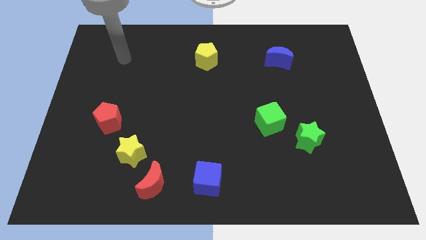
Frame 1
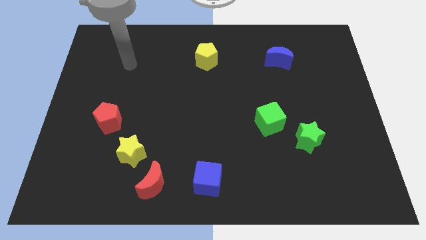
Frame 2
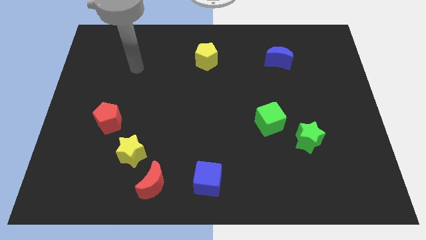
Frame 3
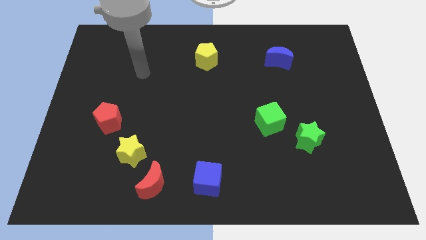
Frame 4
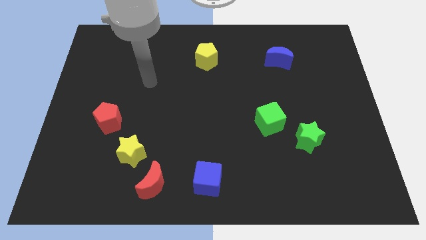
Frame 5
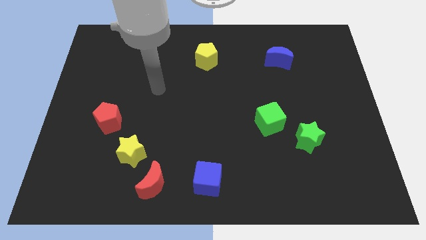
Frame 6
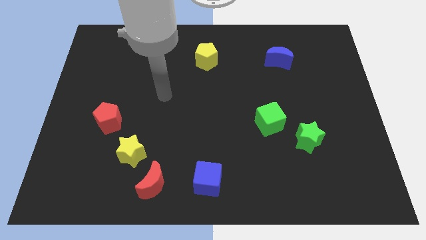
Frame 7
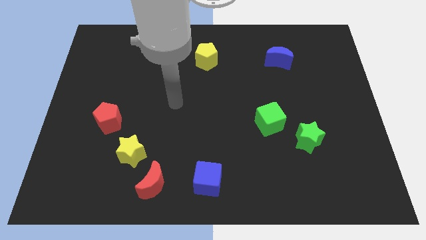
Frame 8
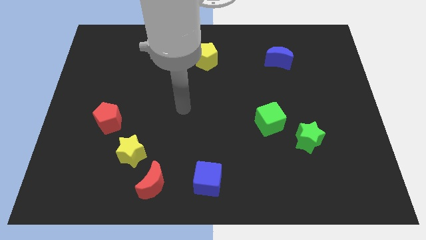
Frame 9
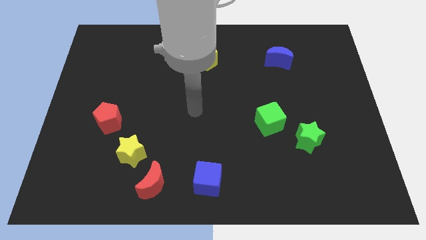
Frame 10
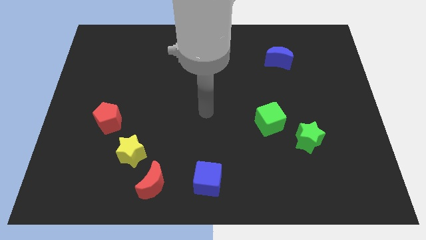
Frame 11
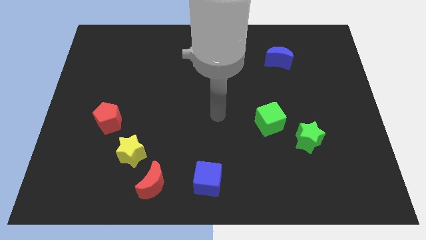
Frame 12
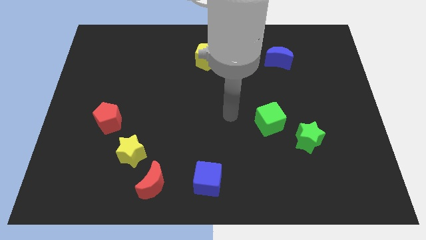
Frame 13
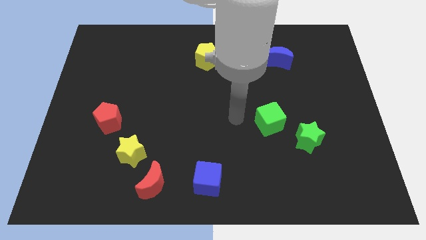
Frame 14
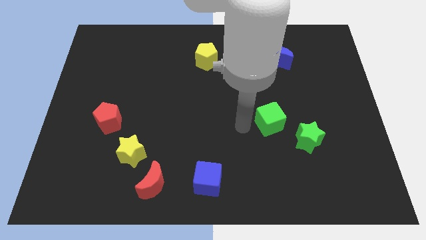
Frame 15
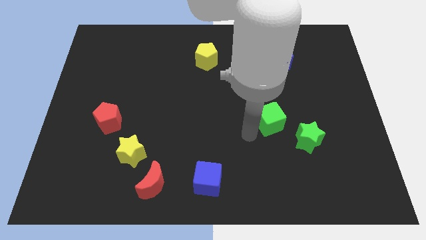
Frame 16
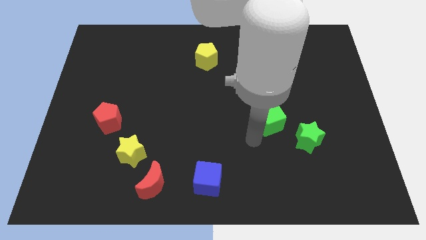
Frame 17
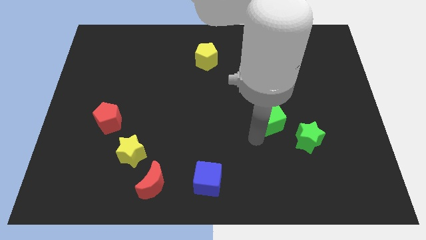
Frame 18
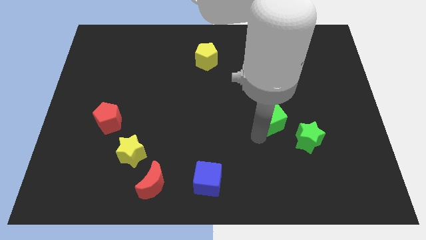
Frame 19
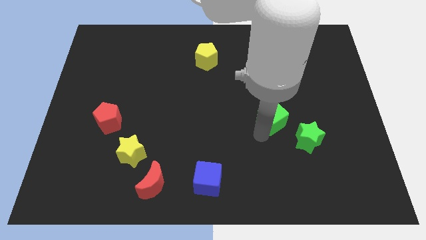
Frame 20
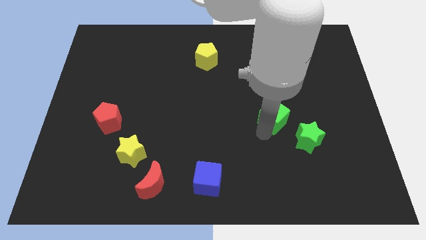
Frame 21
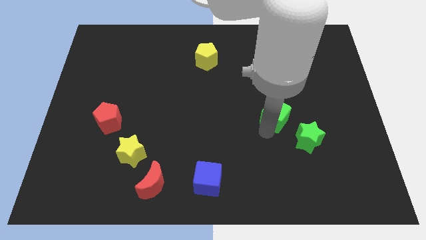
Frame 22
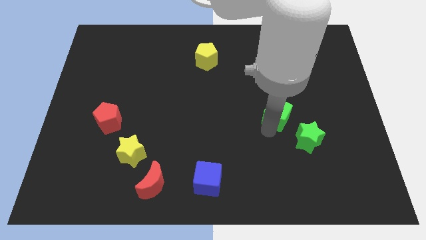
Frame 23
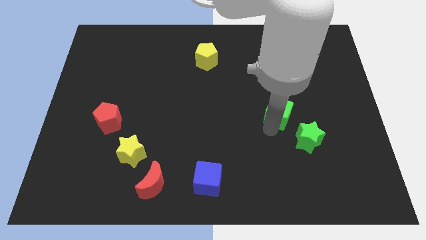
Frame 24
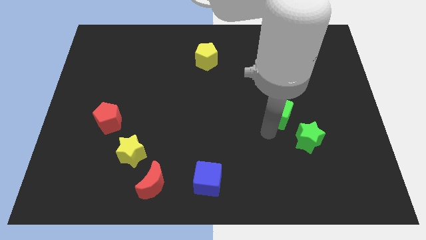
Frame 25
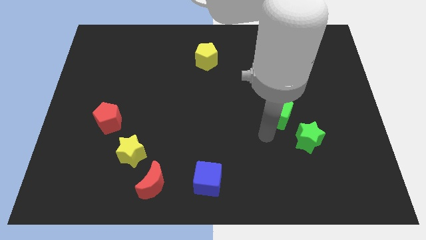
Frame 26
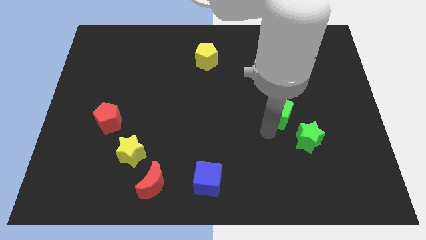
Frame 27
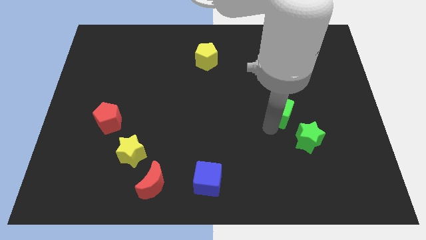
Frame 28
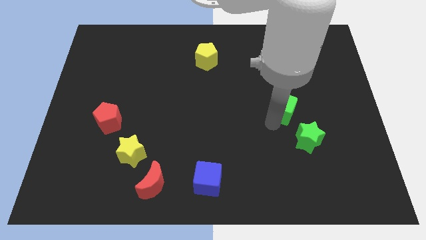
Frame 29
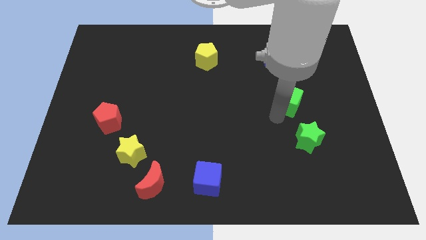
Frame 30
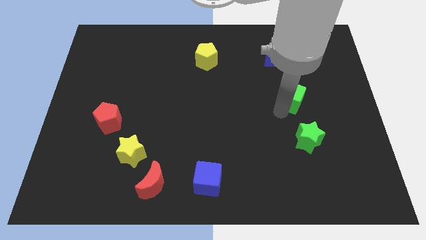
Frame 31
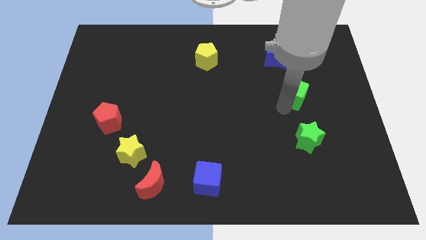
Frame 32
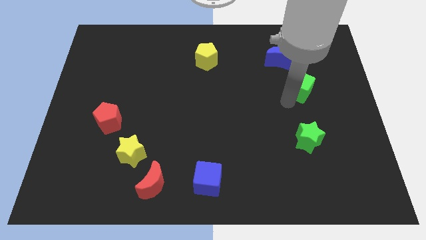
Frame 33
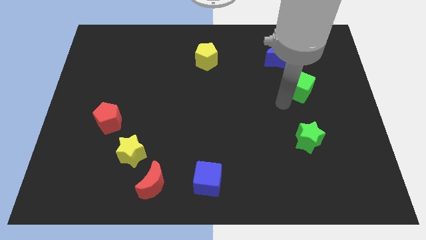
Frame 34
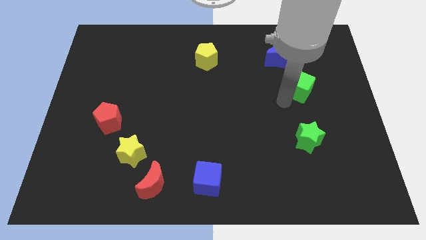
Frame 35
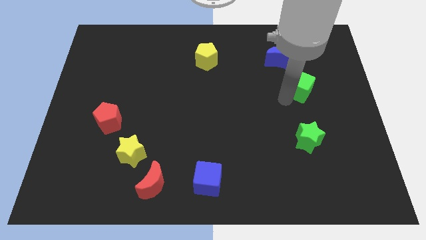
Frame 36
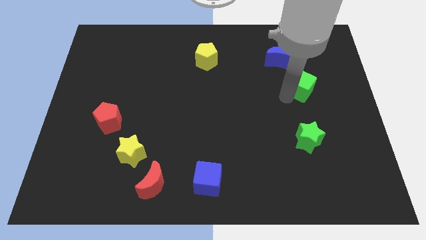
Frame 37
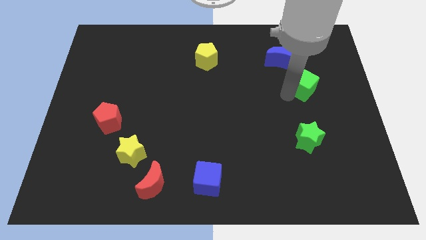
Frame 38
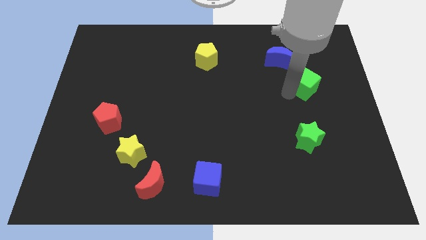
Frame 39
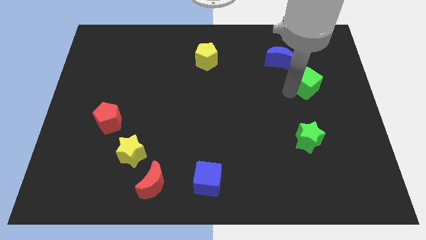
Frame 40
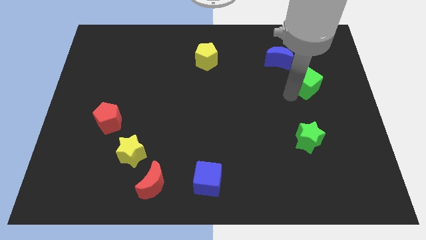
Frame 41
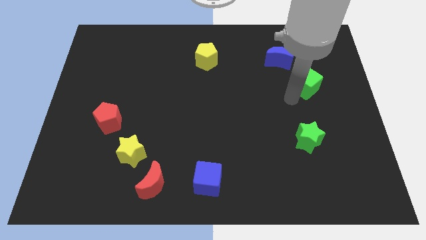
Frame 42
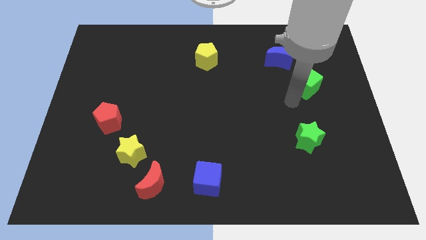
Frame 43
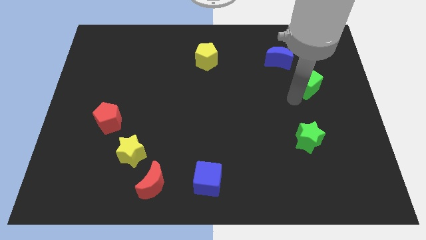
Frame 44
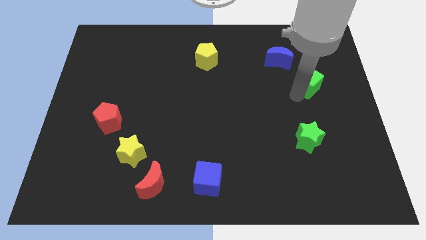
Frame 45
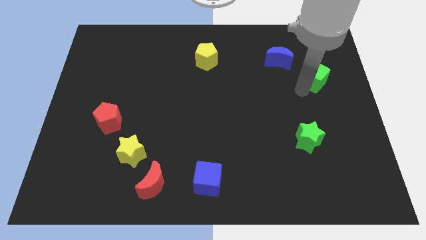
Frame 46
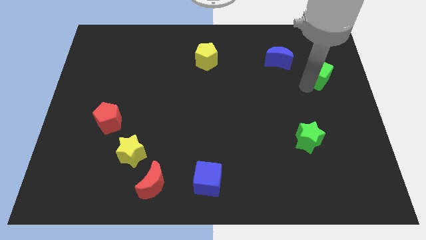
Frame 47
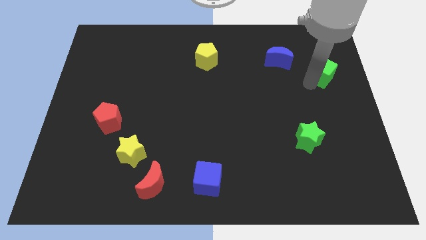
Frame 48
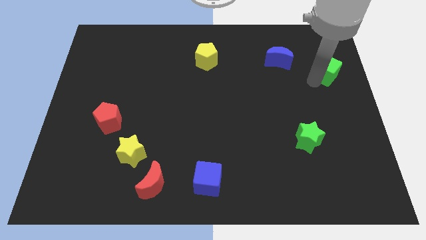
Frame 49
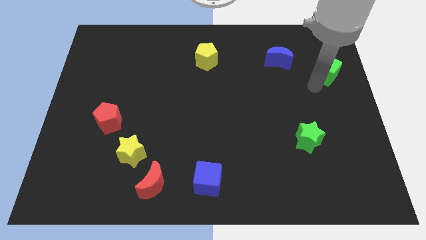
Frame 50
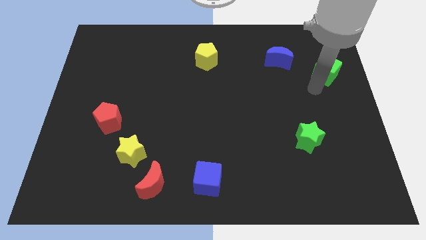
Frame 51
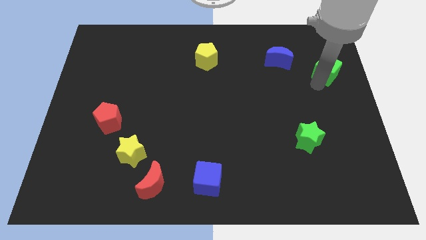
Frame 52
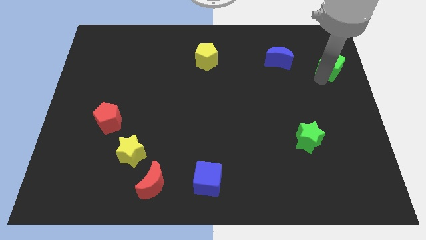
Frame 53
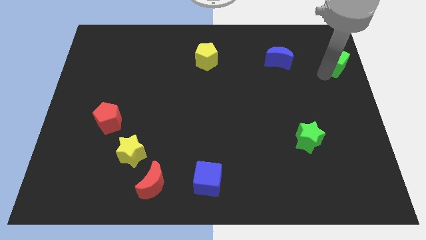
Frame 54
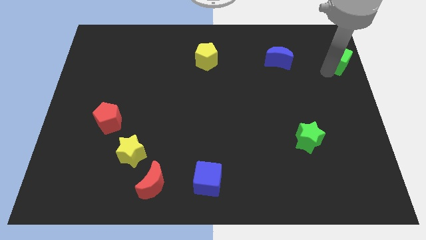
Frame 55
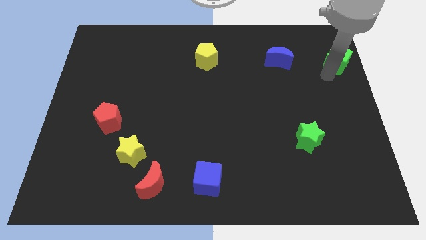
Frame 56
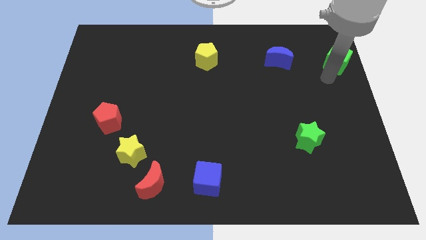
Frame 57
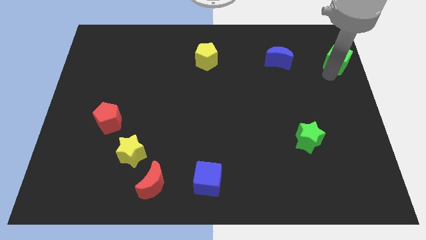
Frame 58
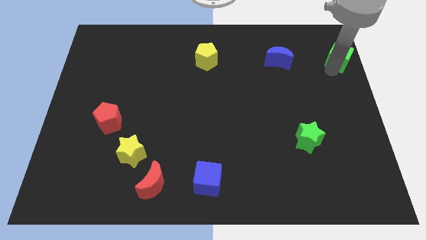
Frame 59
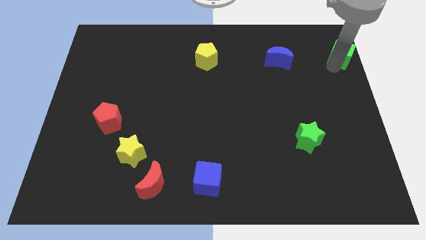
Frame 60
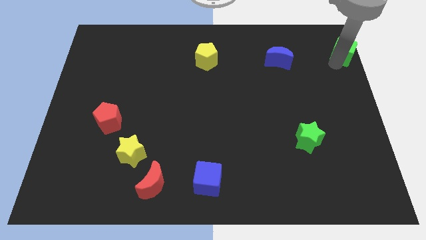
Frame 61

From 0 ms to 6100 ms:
put the green cube to the top right corner
